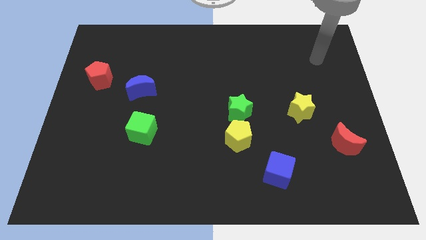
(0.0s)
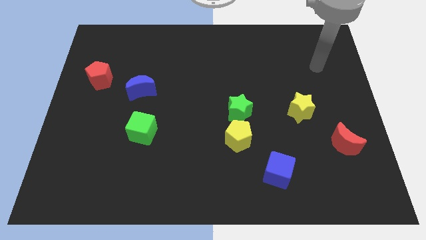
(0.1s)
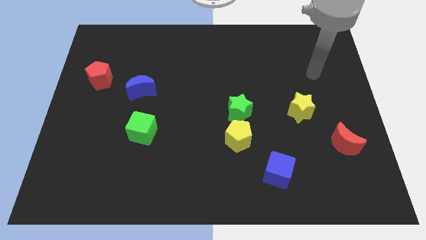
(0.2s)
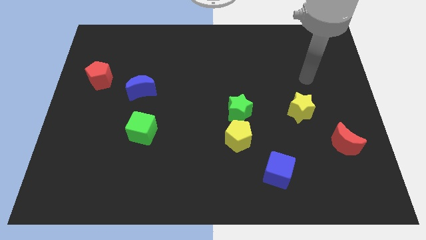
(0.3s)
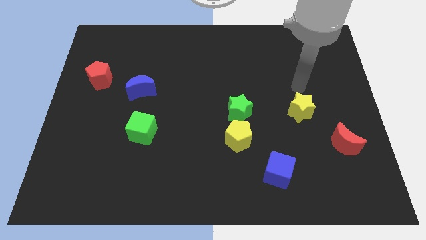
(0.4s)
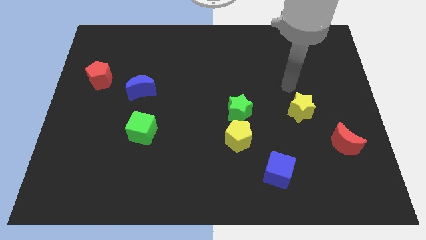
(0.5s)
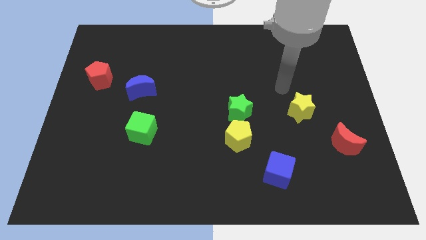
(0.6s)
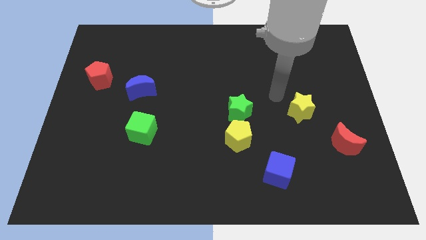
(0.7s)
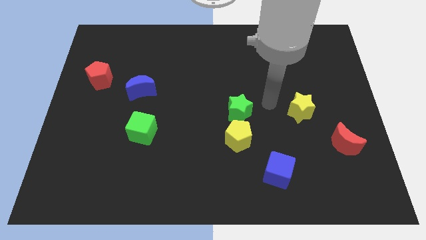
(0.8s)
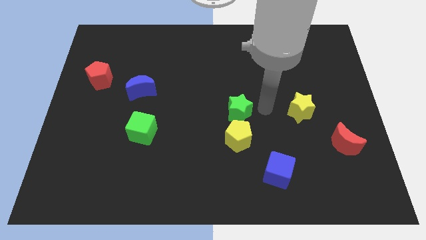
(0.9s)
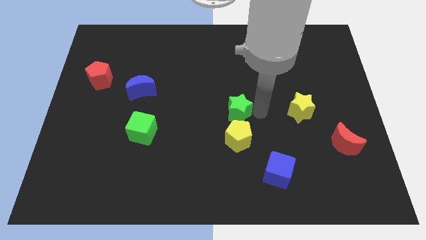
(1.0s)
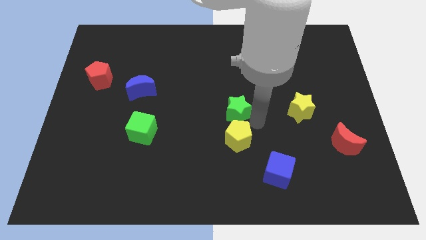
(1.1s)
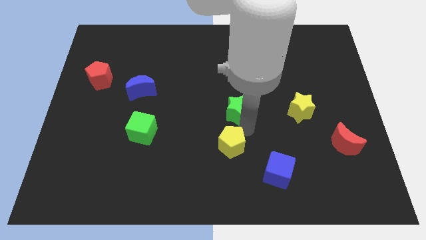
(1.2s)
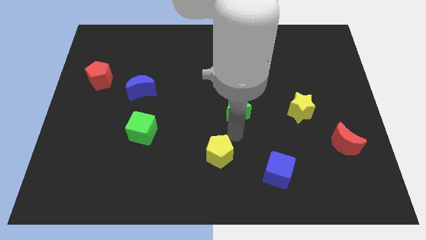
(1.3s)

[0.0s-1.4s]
pull the green star apart from the yellow pentagon

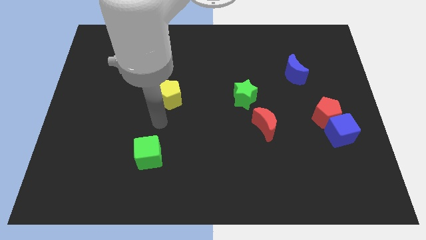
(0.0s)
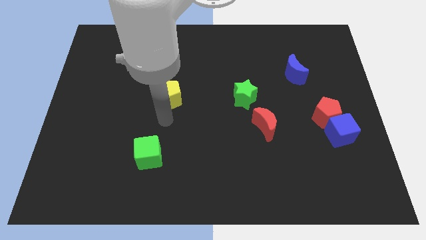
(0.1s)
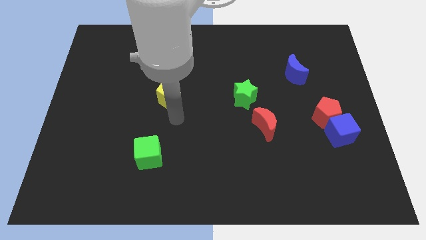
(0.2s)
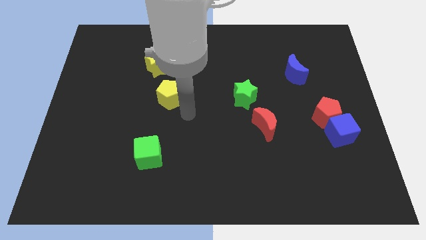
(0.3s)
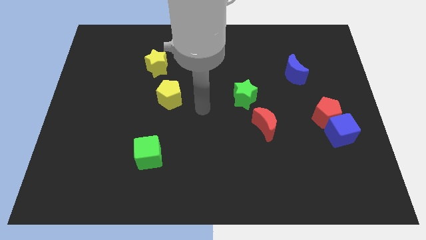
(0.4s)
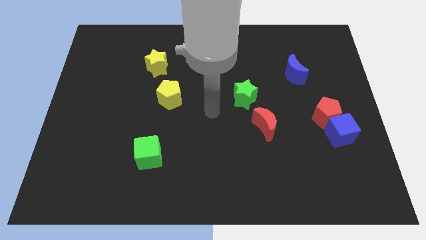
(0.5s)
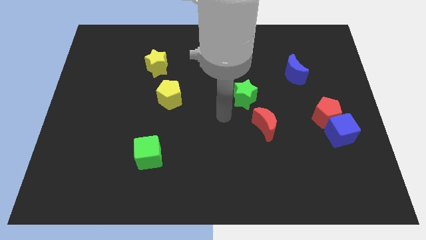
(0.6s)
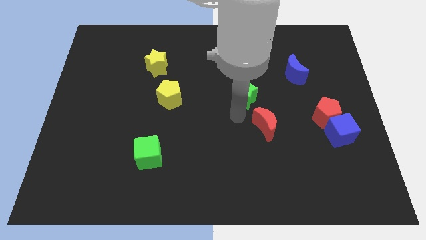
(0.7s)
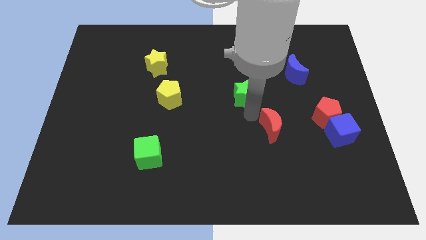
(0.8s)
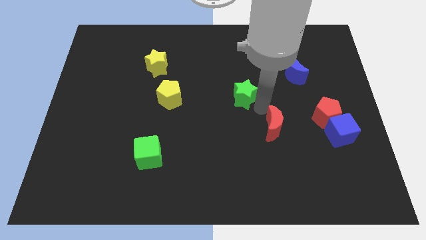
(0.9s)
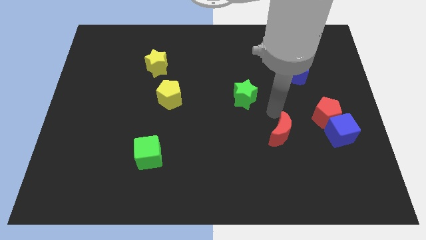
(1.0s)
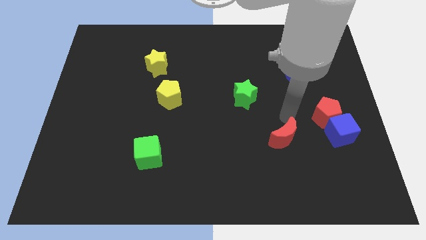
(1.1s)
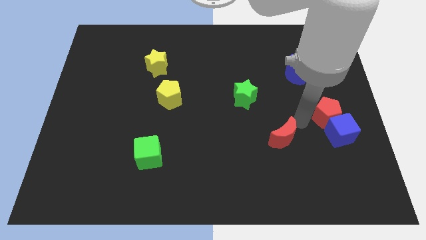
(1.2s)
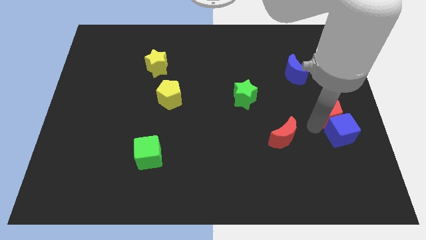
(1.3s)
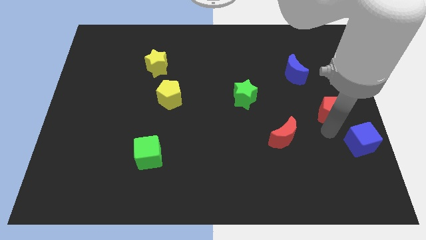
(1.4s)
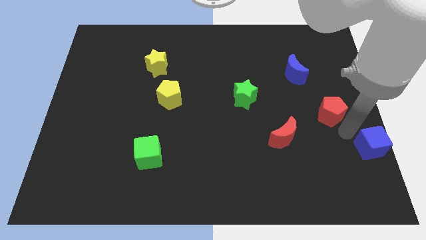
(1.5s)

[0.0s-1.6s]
pull the red pentagon apart from the blue cube

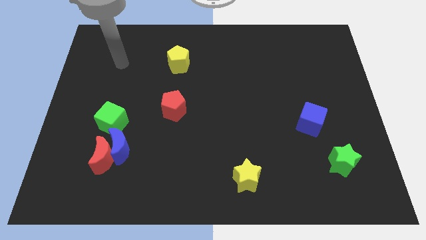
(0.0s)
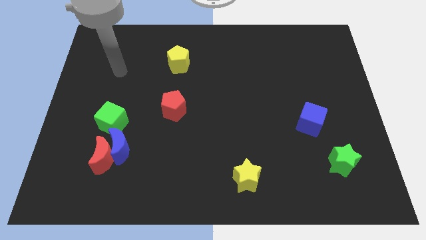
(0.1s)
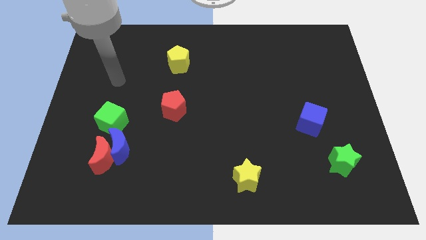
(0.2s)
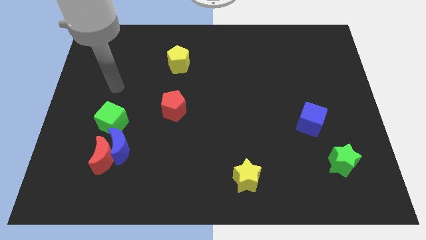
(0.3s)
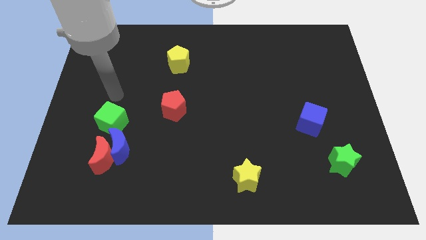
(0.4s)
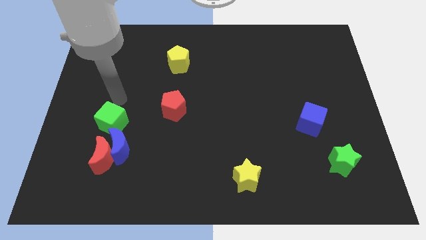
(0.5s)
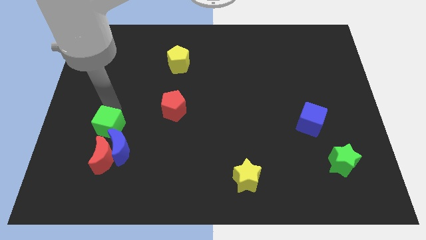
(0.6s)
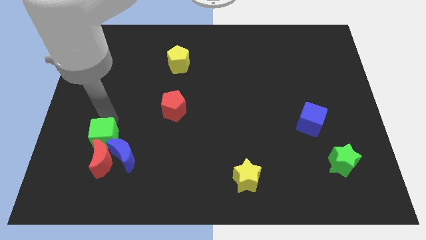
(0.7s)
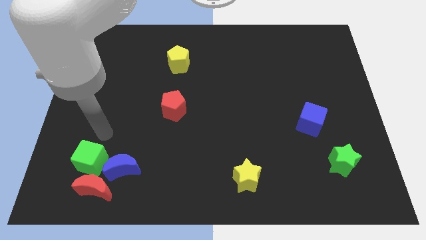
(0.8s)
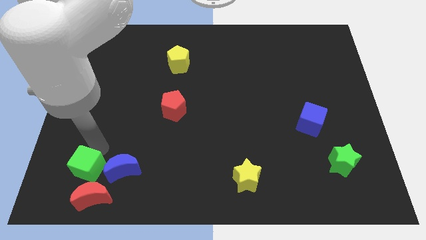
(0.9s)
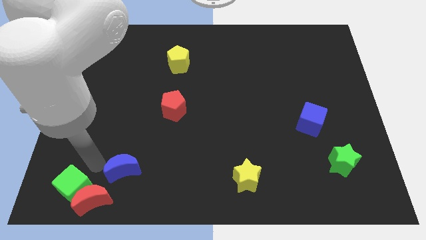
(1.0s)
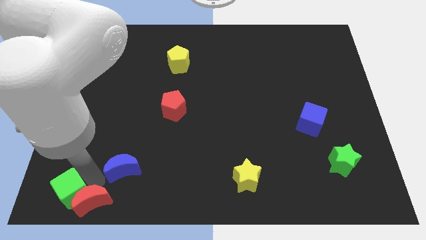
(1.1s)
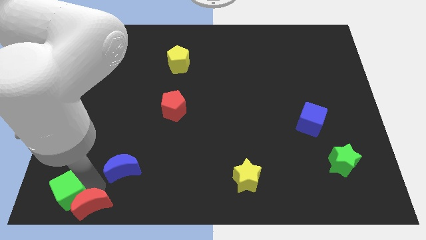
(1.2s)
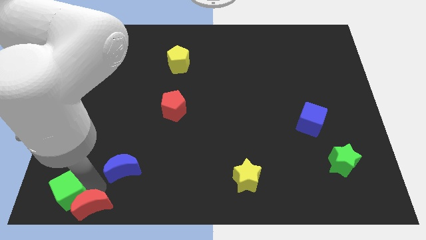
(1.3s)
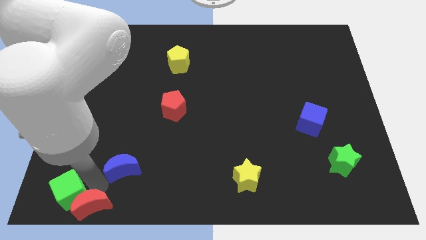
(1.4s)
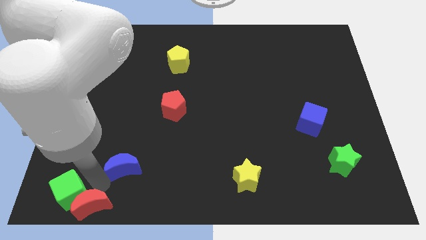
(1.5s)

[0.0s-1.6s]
pull the blue moon apart from the red moon and green cube

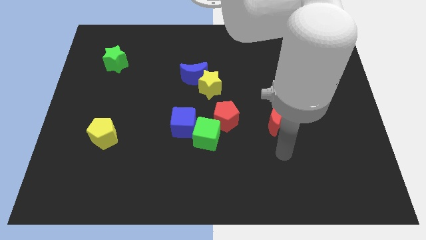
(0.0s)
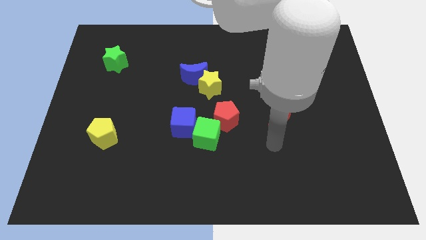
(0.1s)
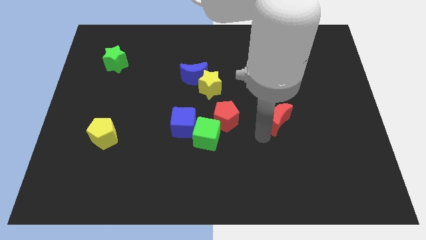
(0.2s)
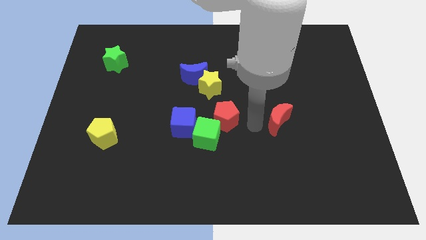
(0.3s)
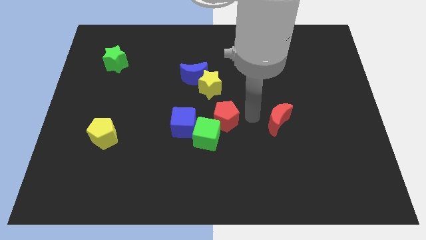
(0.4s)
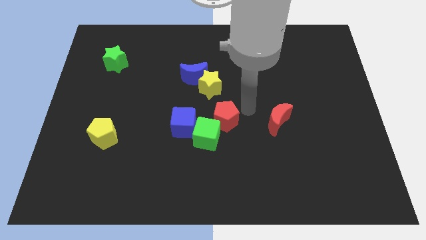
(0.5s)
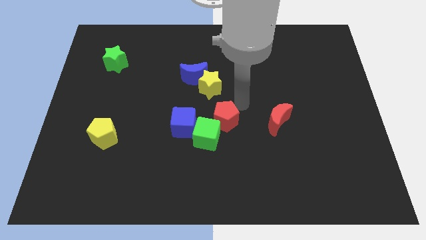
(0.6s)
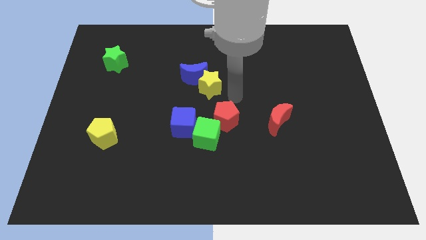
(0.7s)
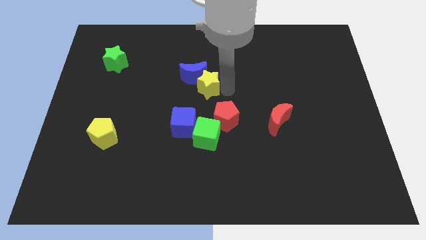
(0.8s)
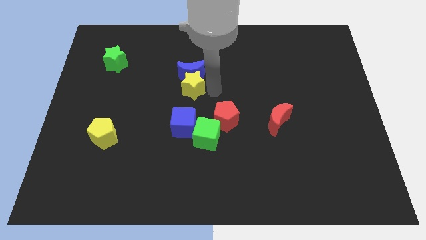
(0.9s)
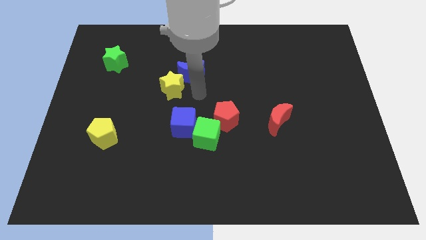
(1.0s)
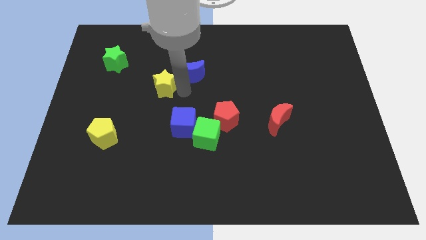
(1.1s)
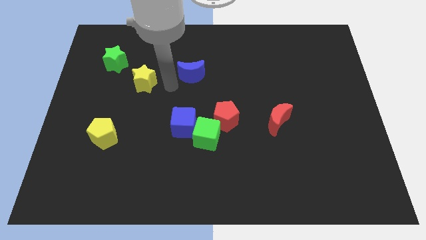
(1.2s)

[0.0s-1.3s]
pull the blue moon apart from the yellow star

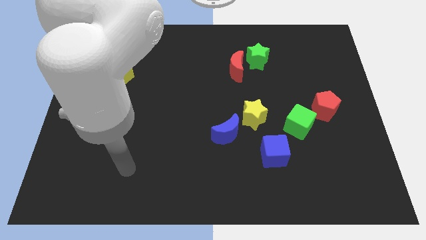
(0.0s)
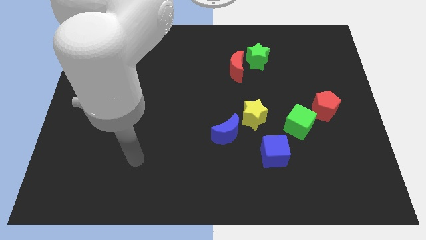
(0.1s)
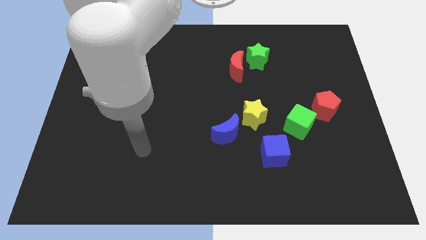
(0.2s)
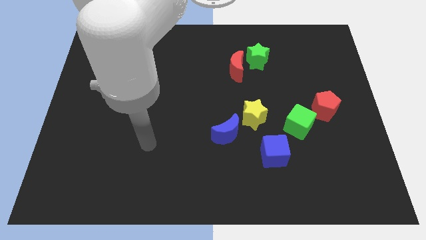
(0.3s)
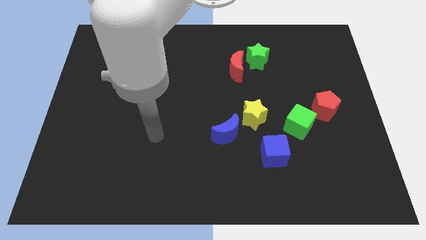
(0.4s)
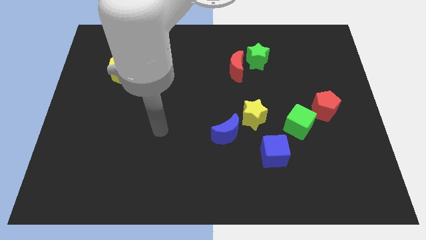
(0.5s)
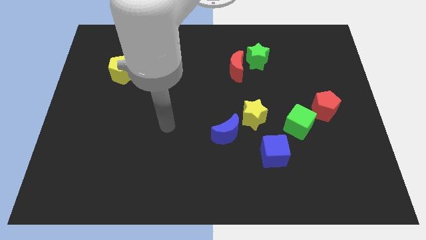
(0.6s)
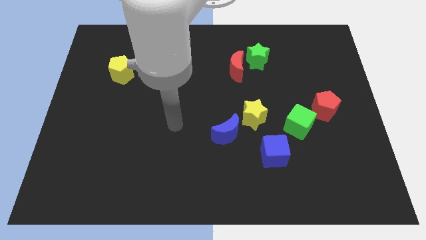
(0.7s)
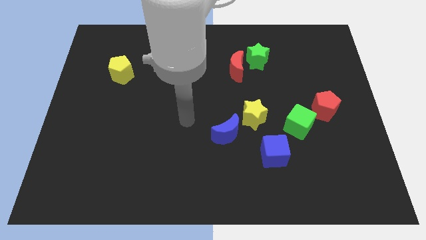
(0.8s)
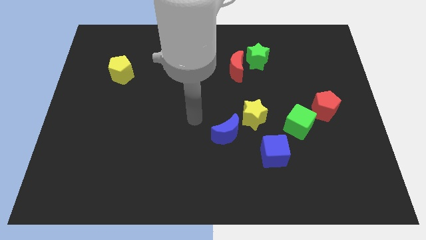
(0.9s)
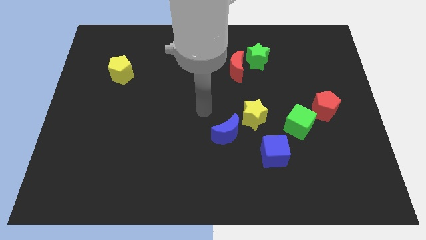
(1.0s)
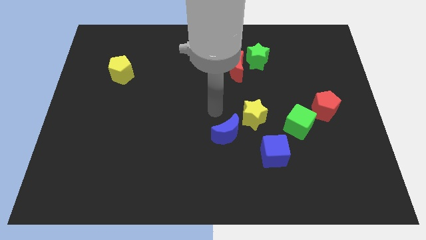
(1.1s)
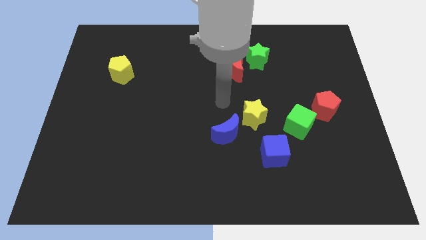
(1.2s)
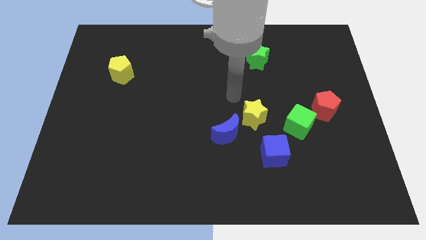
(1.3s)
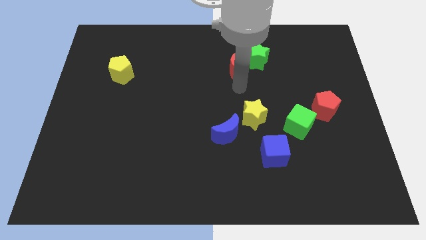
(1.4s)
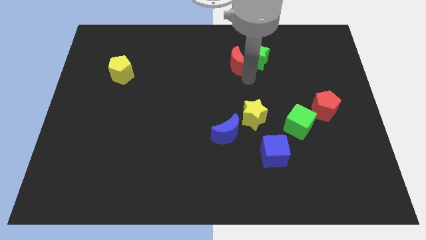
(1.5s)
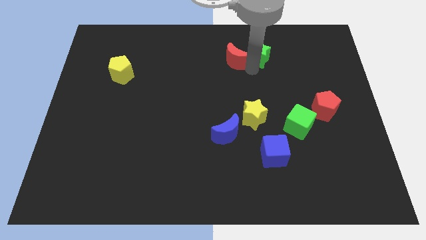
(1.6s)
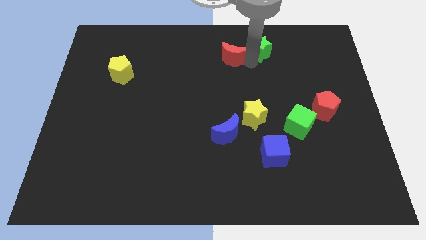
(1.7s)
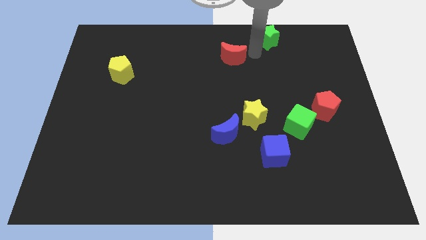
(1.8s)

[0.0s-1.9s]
pull the red moon apart from the green star

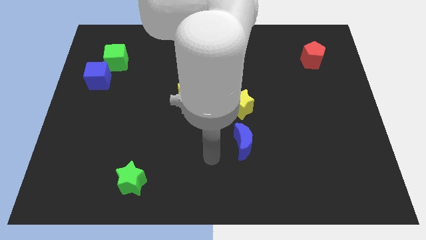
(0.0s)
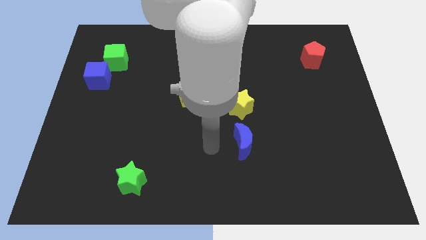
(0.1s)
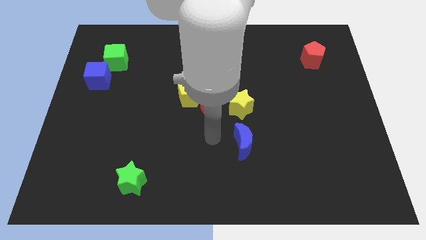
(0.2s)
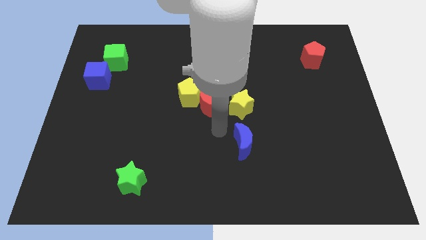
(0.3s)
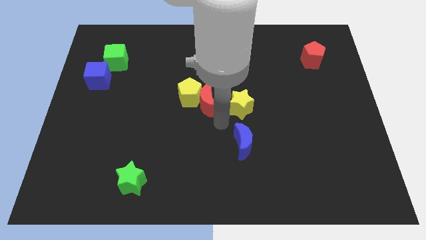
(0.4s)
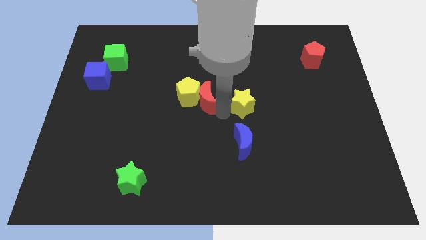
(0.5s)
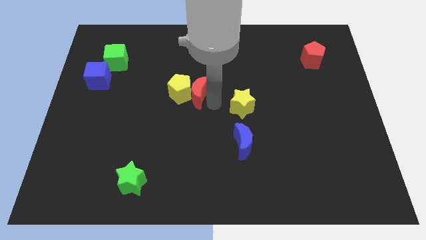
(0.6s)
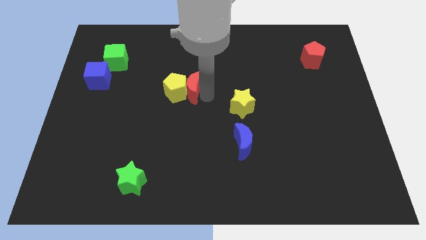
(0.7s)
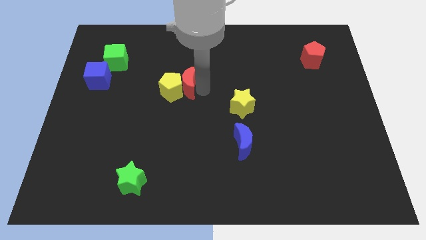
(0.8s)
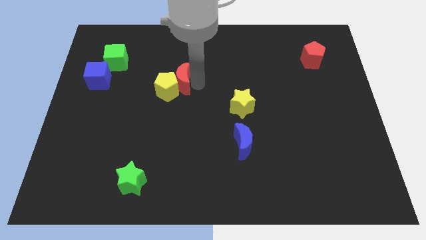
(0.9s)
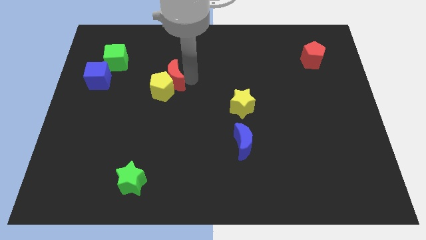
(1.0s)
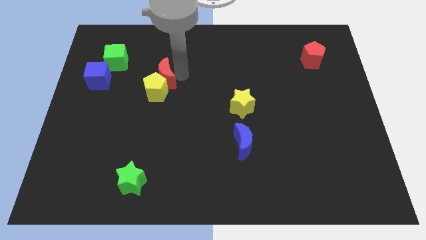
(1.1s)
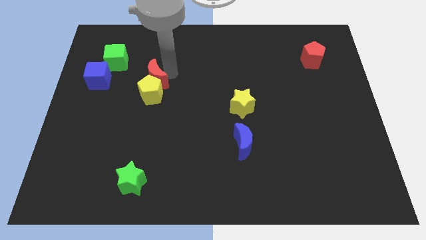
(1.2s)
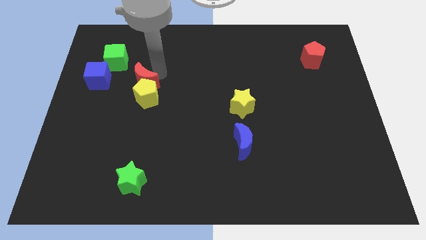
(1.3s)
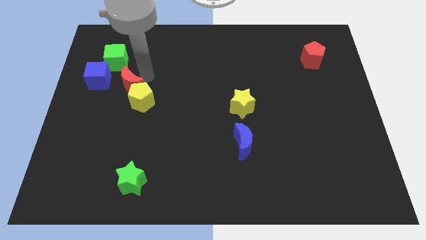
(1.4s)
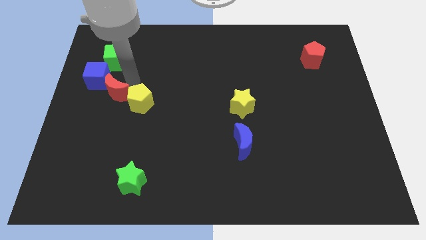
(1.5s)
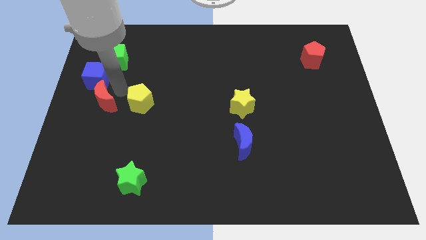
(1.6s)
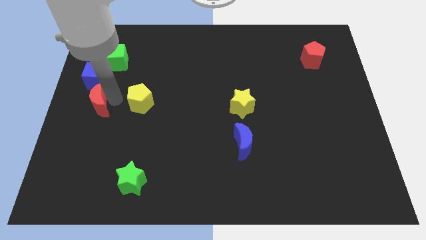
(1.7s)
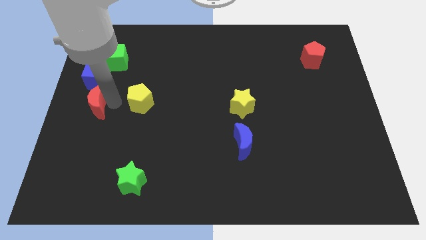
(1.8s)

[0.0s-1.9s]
separate the yellow pentagon from the red moon
